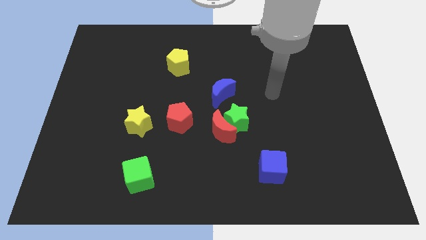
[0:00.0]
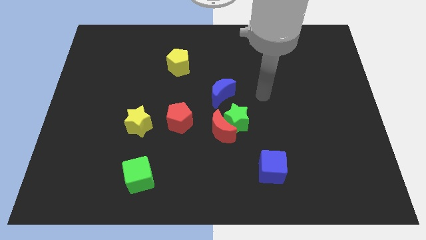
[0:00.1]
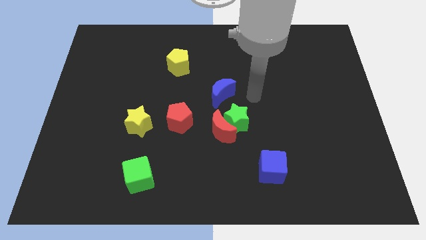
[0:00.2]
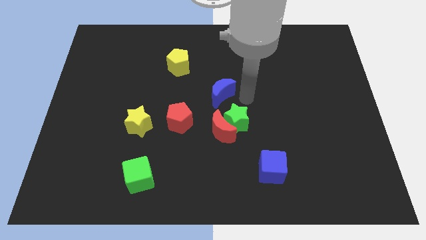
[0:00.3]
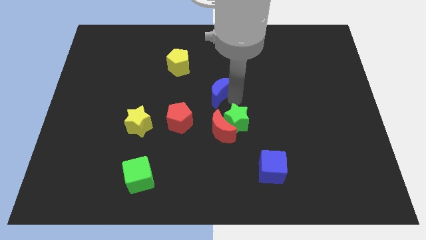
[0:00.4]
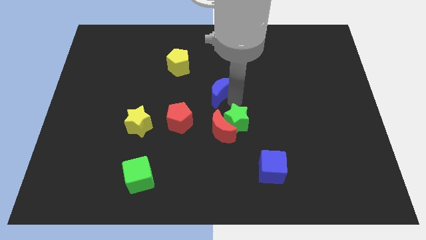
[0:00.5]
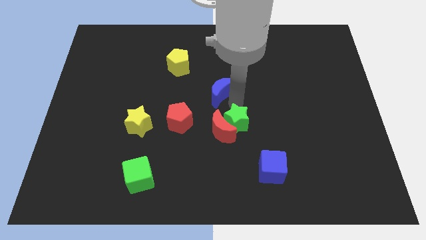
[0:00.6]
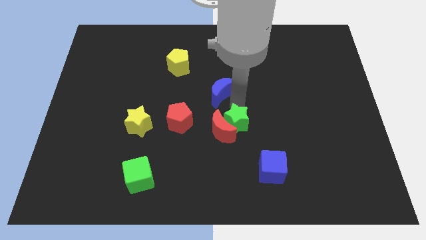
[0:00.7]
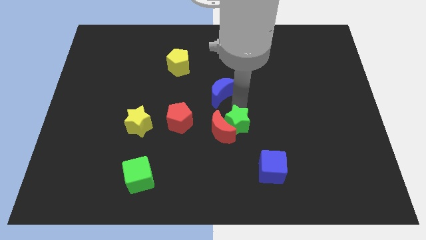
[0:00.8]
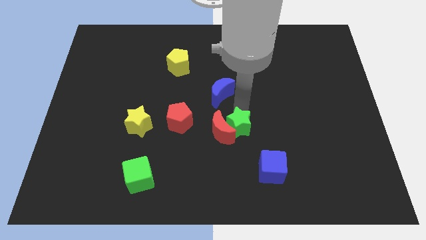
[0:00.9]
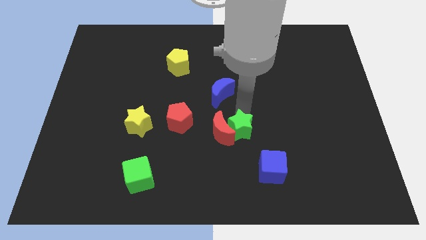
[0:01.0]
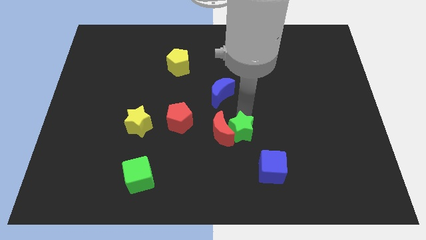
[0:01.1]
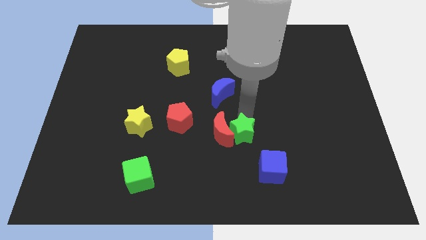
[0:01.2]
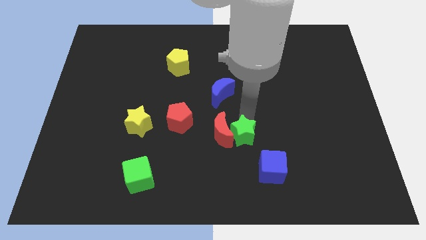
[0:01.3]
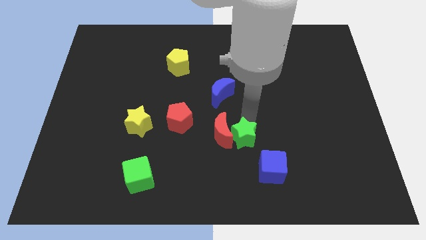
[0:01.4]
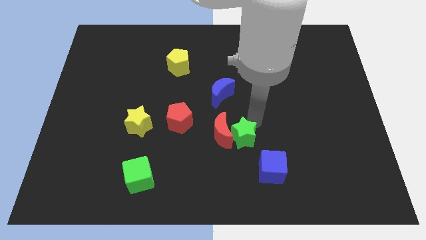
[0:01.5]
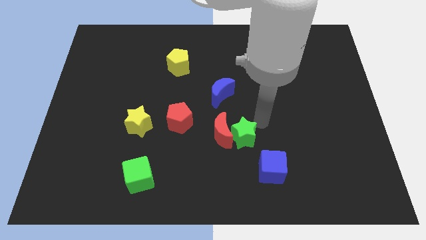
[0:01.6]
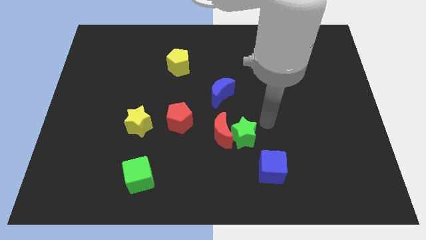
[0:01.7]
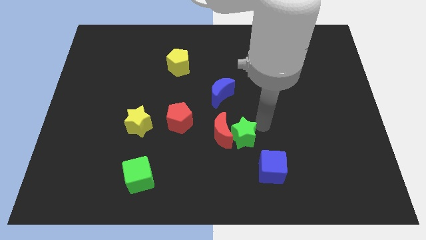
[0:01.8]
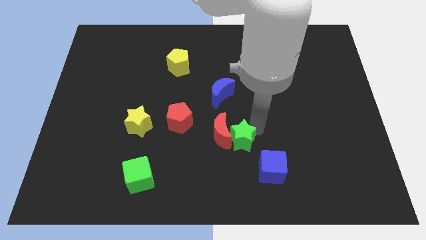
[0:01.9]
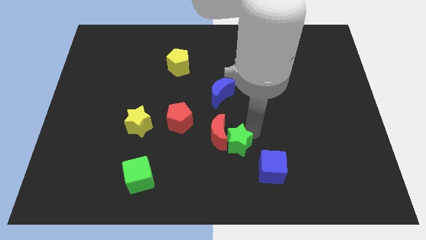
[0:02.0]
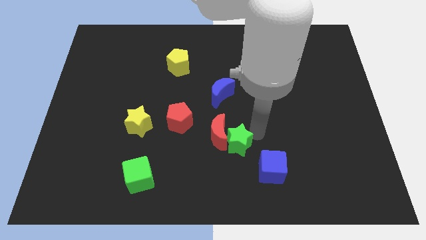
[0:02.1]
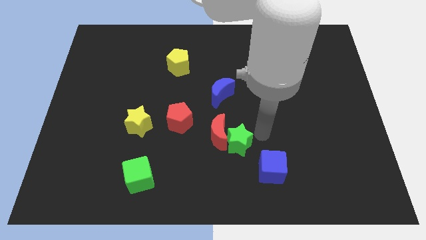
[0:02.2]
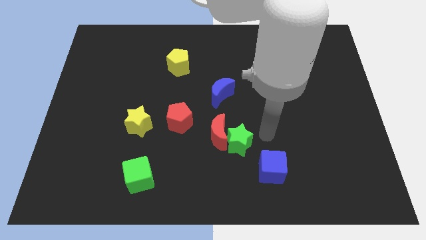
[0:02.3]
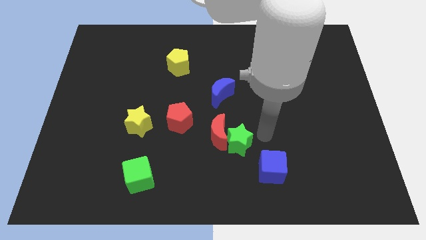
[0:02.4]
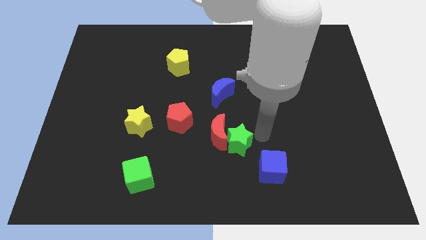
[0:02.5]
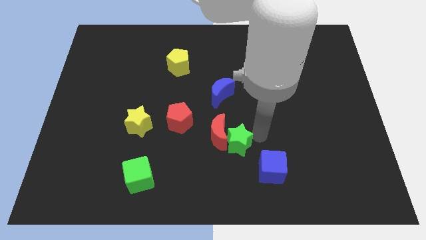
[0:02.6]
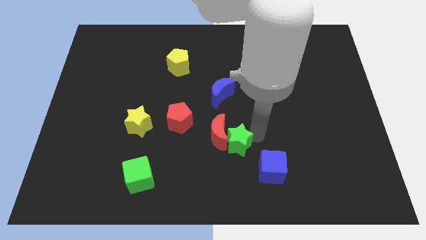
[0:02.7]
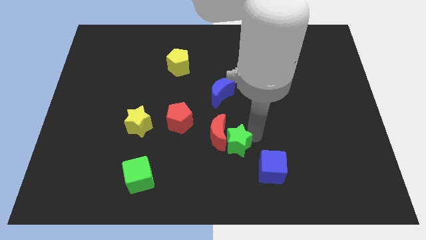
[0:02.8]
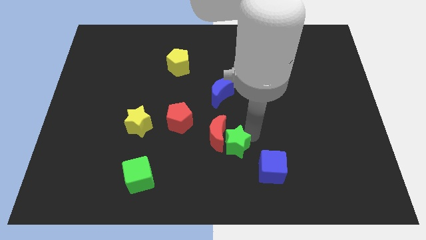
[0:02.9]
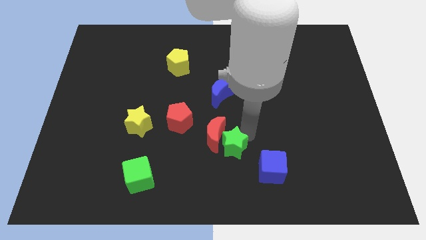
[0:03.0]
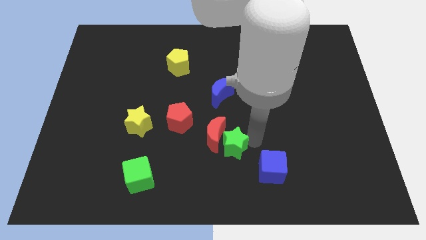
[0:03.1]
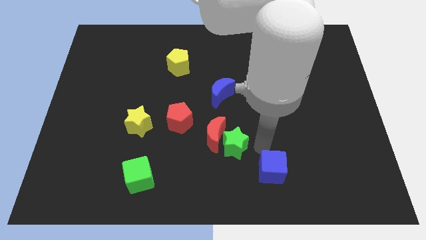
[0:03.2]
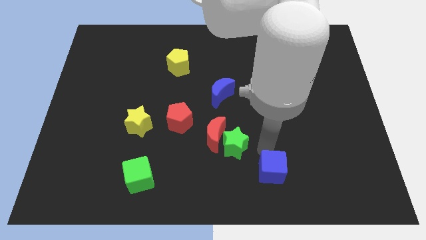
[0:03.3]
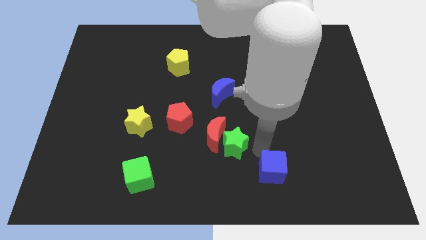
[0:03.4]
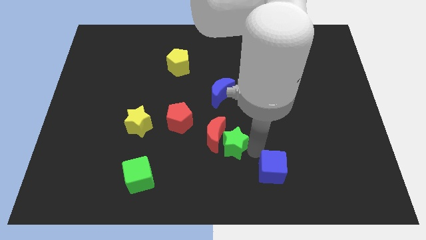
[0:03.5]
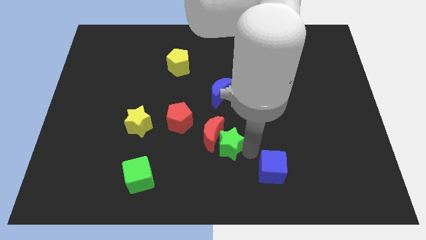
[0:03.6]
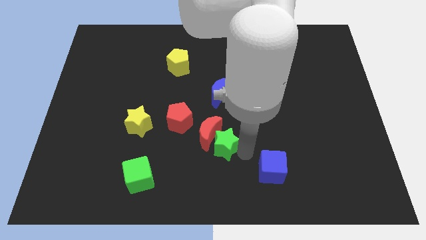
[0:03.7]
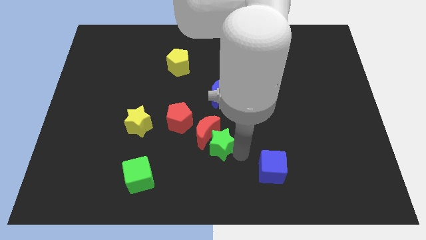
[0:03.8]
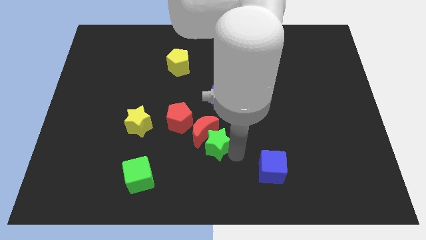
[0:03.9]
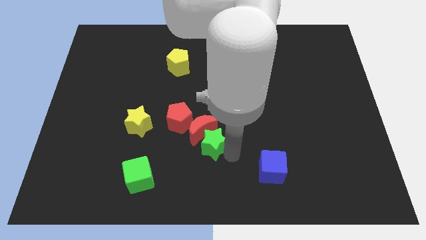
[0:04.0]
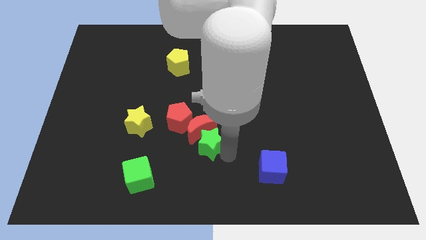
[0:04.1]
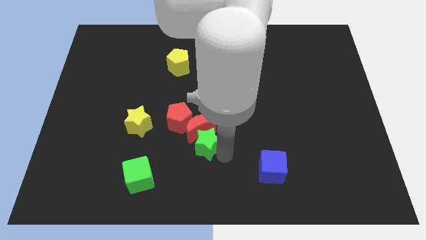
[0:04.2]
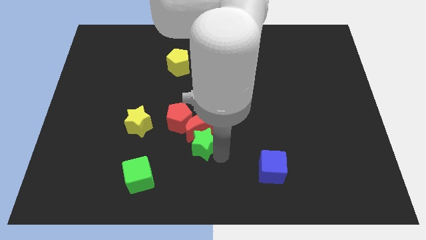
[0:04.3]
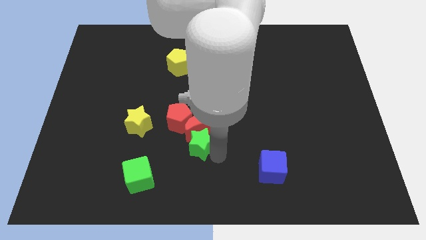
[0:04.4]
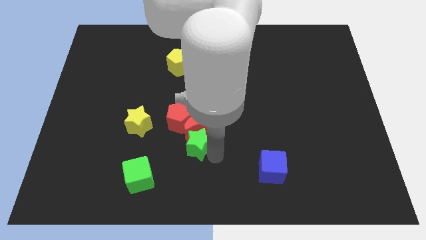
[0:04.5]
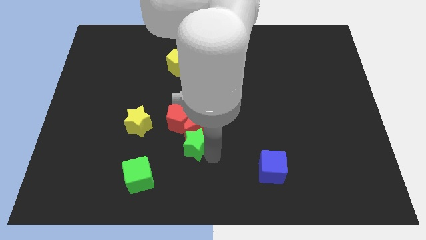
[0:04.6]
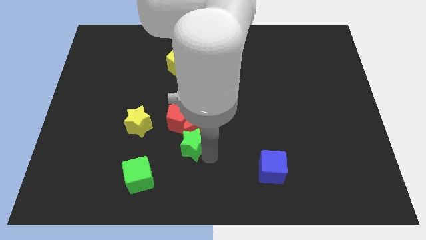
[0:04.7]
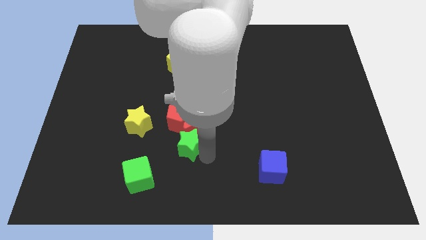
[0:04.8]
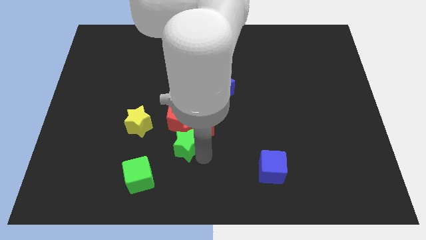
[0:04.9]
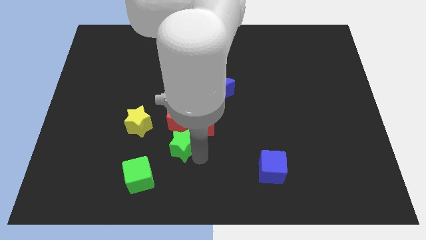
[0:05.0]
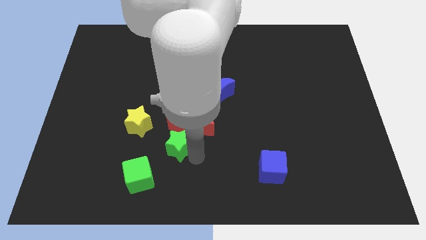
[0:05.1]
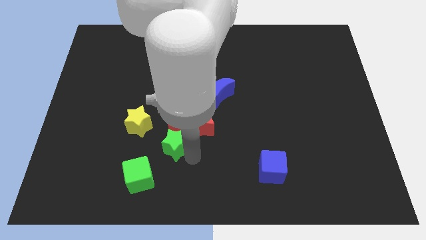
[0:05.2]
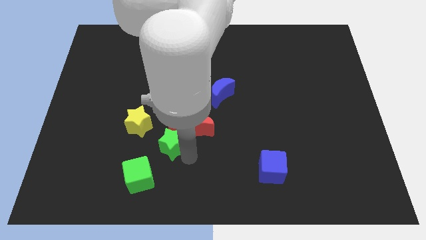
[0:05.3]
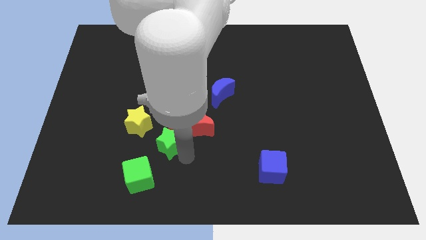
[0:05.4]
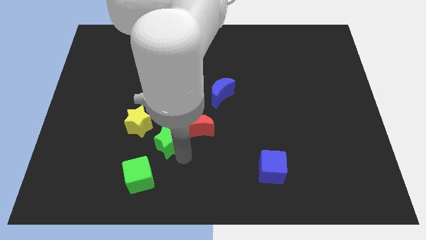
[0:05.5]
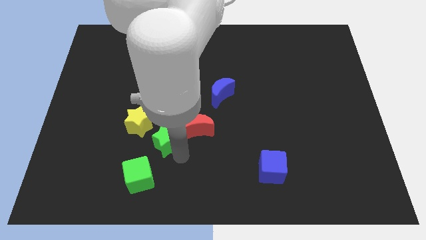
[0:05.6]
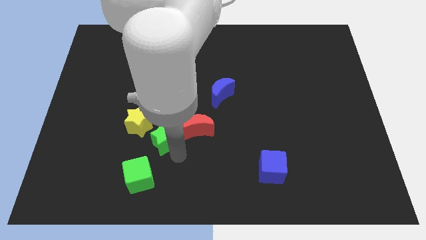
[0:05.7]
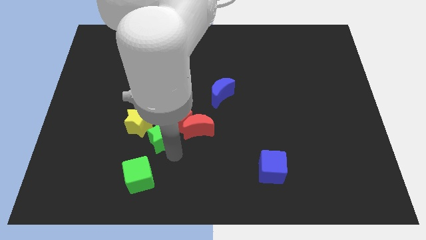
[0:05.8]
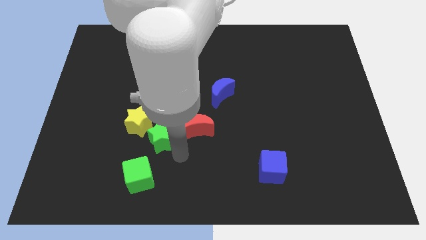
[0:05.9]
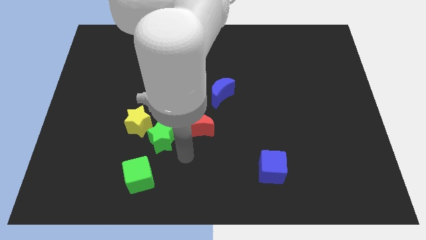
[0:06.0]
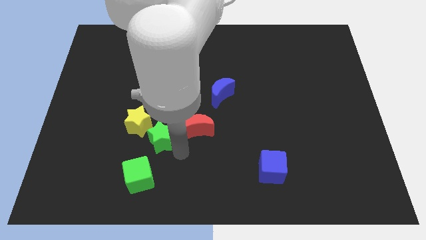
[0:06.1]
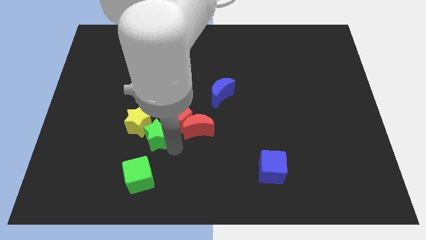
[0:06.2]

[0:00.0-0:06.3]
slide the green star close to the yellow star

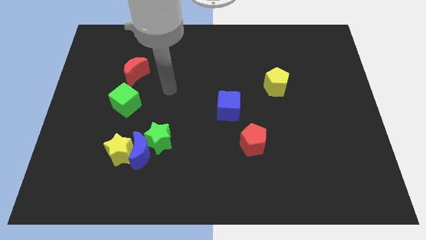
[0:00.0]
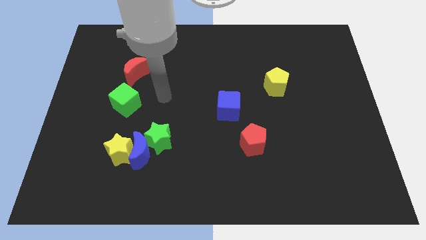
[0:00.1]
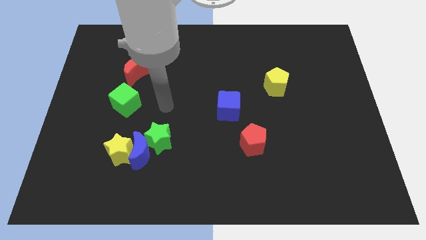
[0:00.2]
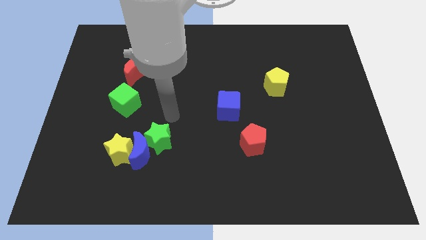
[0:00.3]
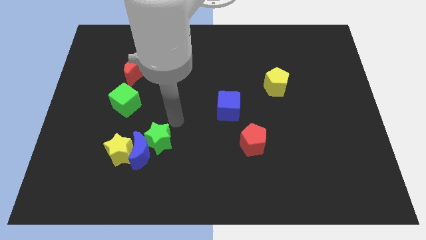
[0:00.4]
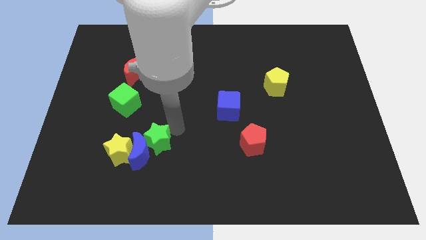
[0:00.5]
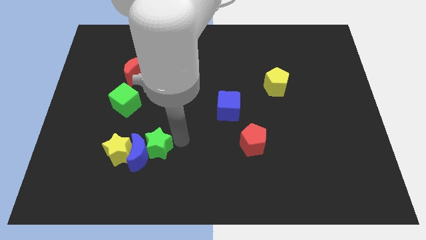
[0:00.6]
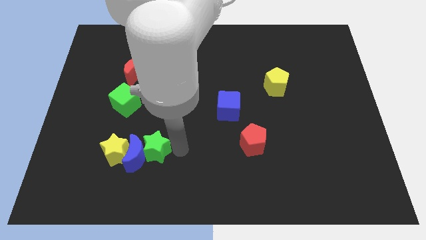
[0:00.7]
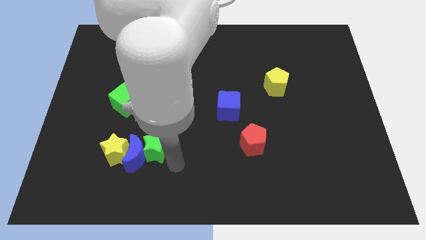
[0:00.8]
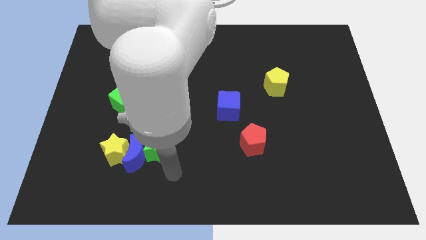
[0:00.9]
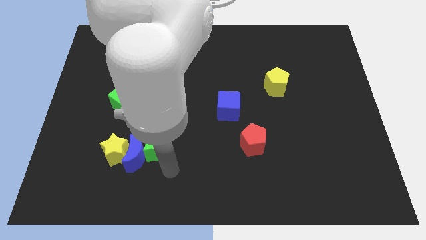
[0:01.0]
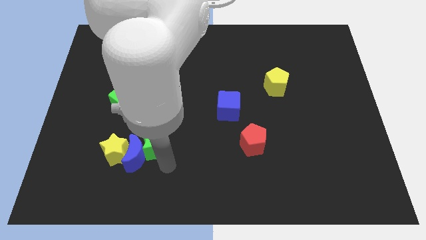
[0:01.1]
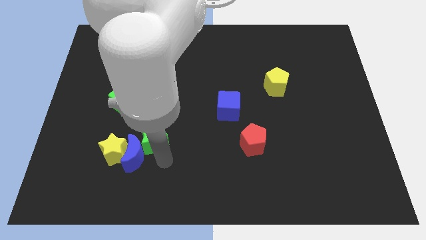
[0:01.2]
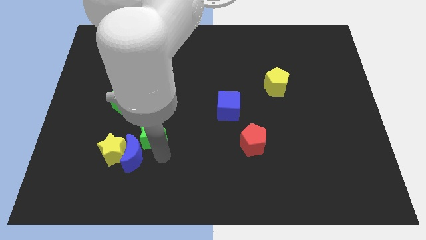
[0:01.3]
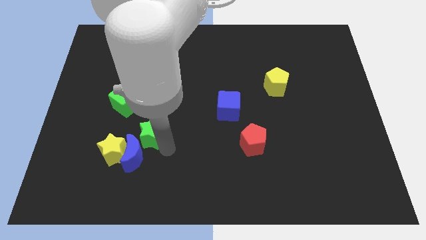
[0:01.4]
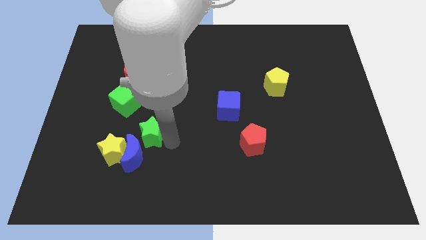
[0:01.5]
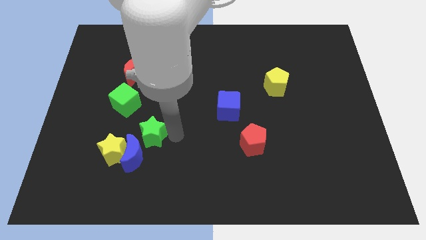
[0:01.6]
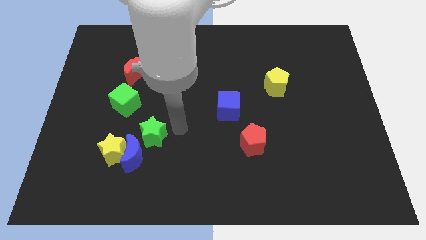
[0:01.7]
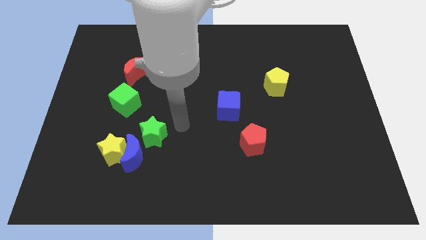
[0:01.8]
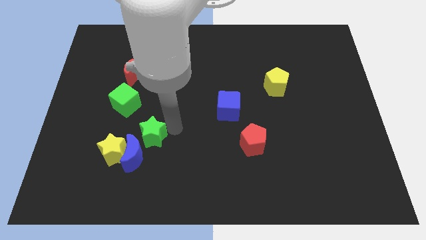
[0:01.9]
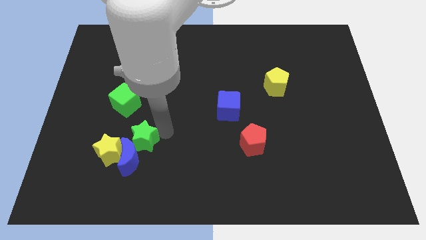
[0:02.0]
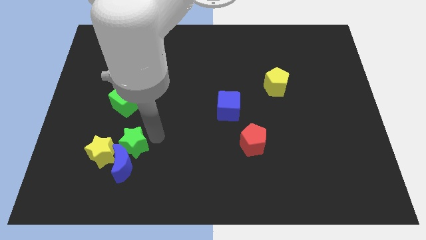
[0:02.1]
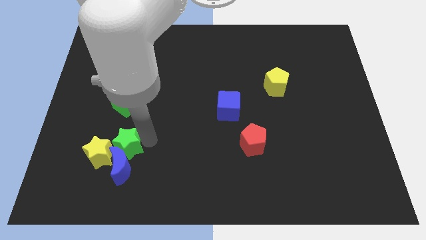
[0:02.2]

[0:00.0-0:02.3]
put the green star towards the yellow star
